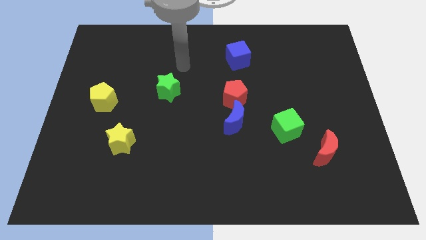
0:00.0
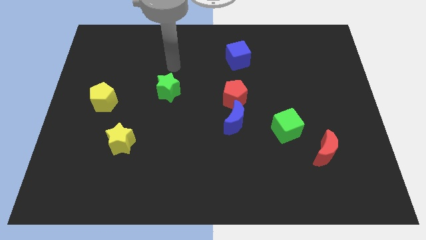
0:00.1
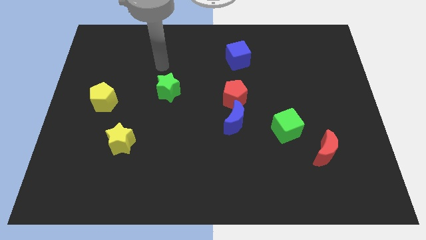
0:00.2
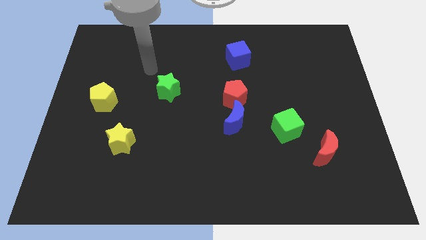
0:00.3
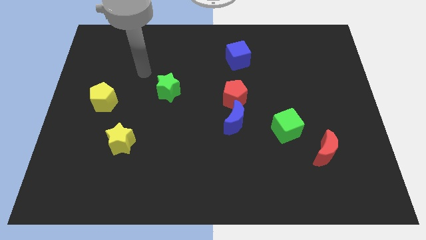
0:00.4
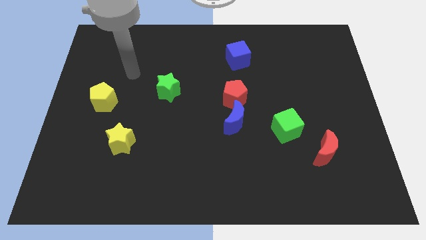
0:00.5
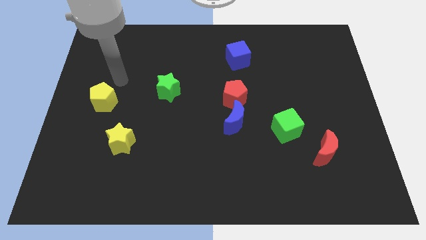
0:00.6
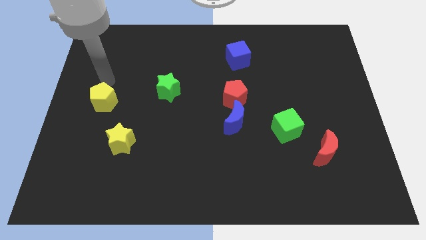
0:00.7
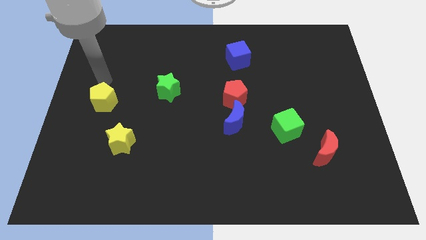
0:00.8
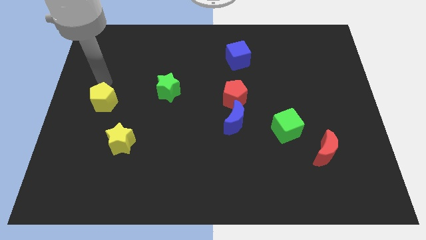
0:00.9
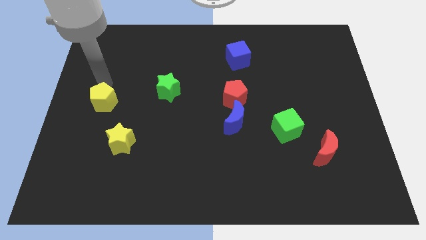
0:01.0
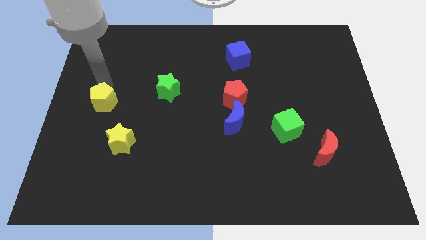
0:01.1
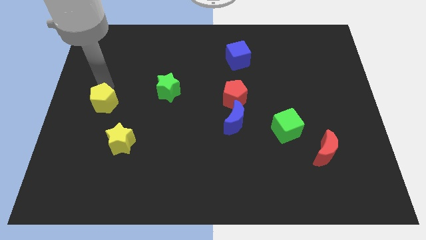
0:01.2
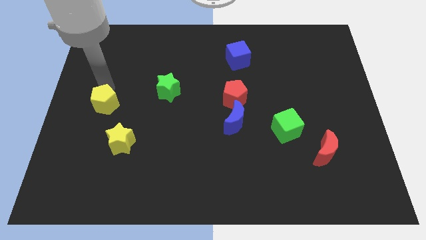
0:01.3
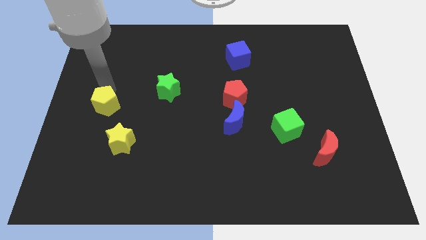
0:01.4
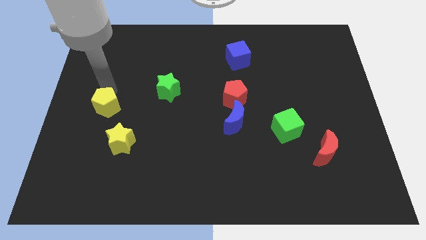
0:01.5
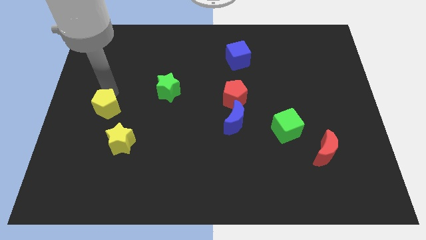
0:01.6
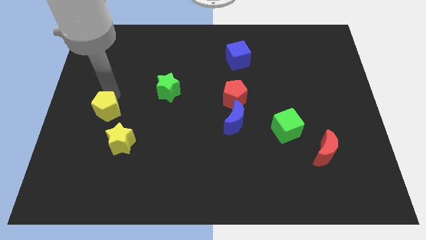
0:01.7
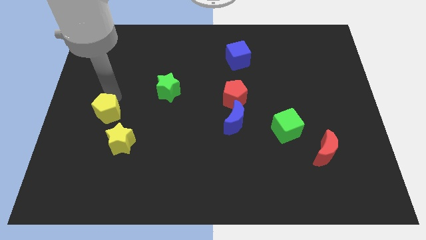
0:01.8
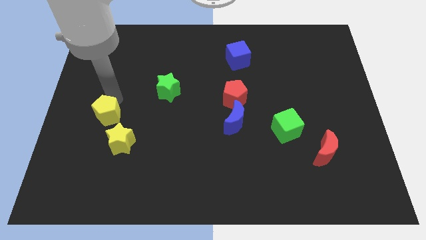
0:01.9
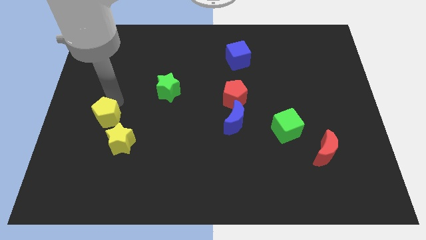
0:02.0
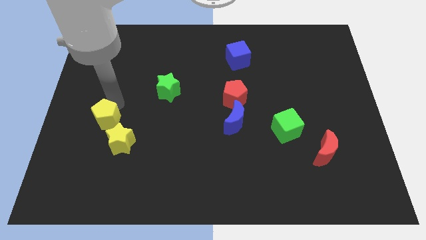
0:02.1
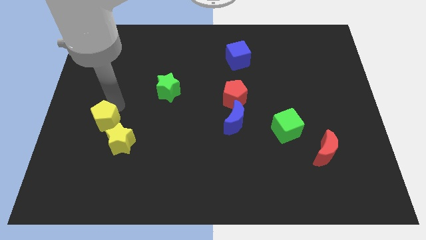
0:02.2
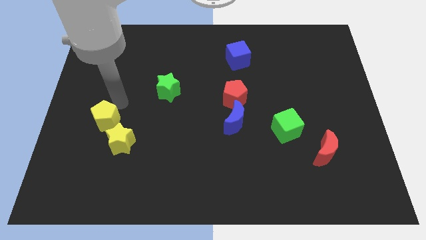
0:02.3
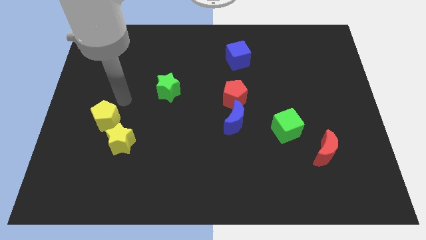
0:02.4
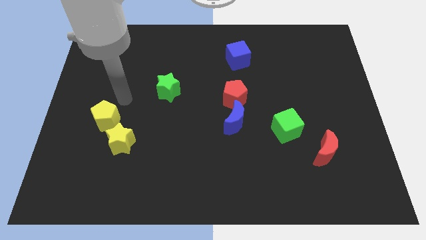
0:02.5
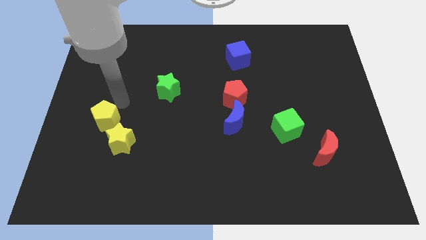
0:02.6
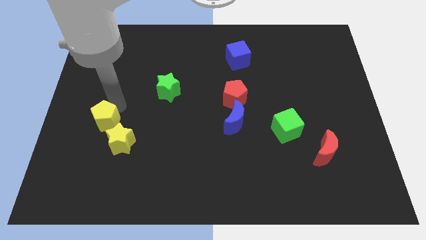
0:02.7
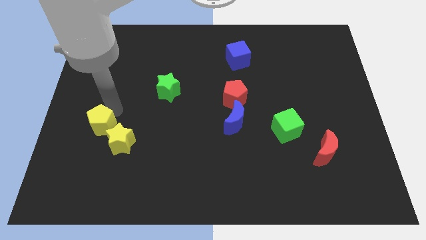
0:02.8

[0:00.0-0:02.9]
move the yellow pentagon downwards somewhat

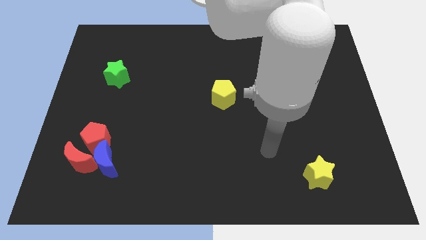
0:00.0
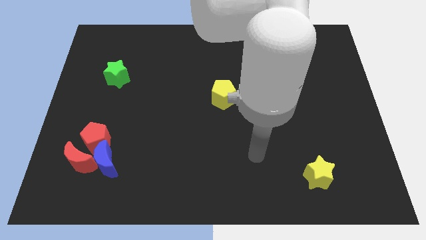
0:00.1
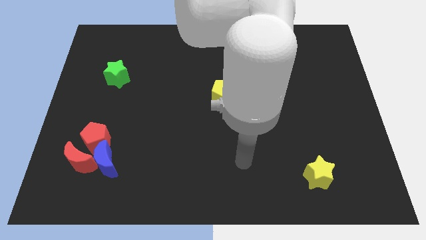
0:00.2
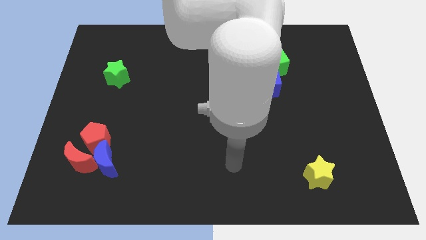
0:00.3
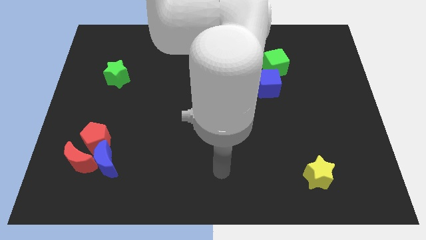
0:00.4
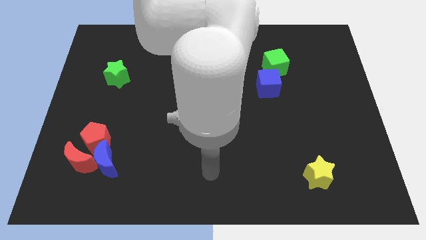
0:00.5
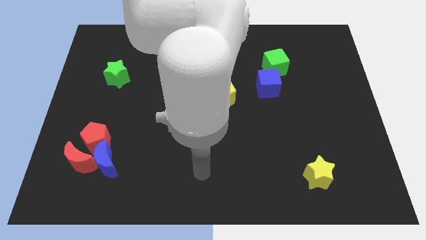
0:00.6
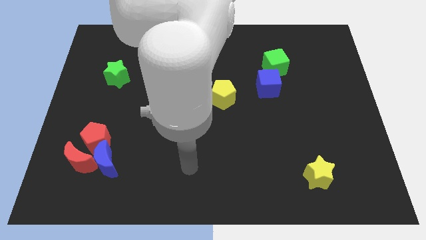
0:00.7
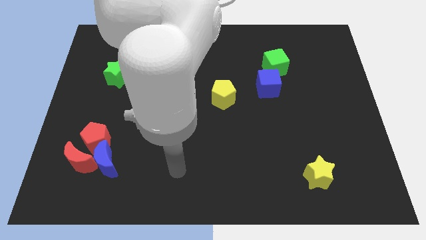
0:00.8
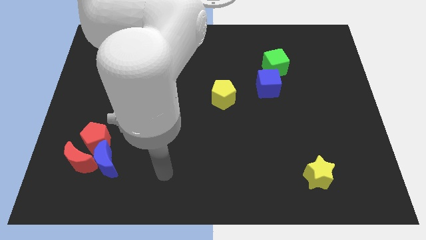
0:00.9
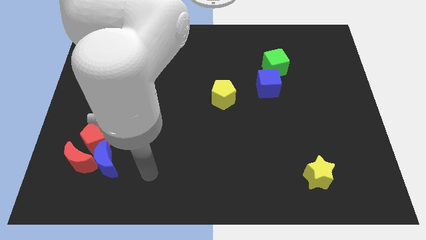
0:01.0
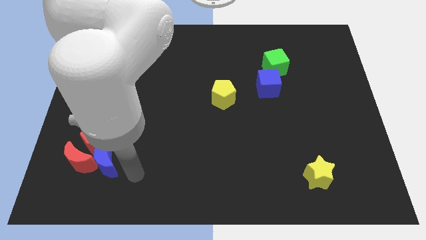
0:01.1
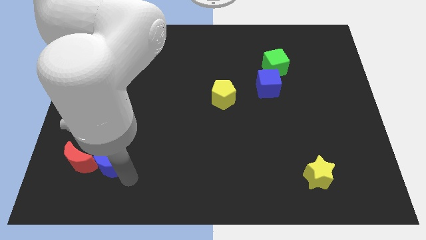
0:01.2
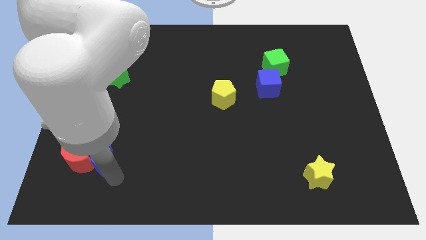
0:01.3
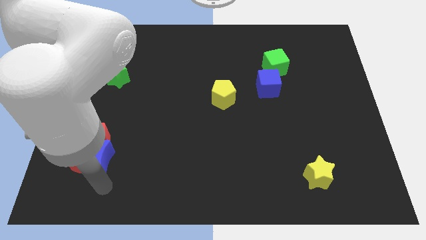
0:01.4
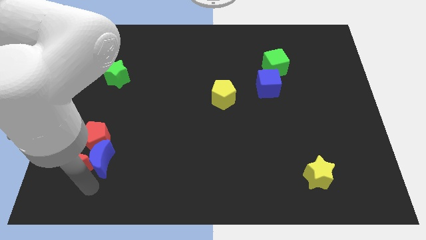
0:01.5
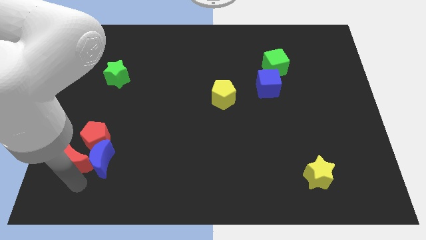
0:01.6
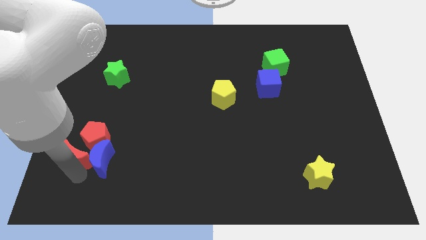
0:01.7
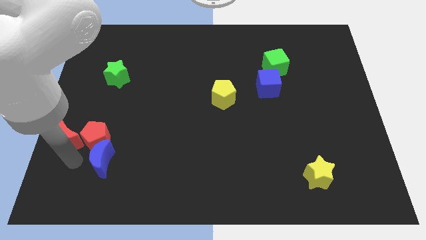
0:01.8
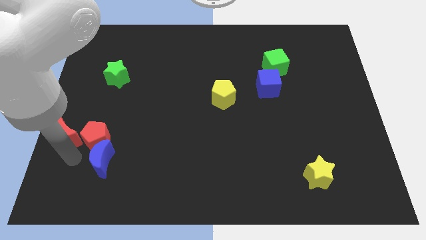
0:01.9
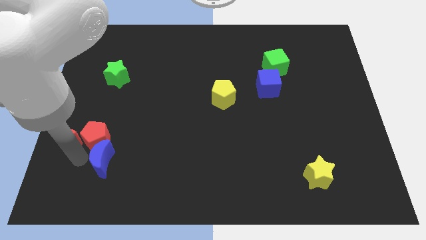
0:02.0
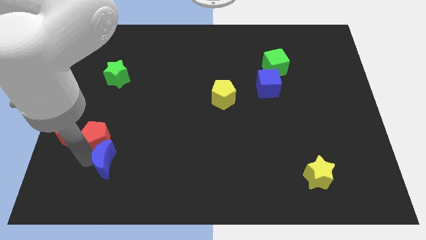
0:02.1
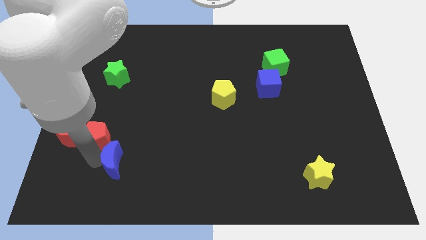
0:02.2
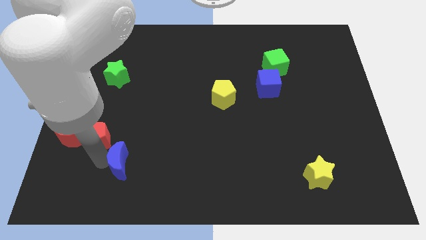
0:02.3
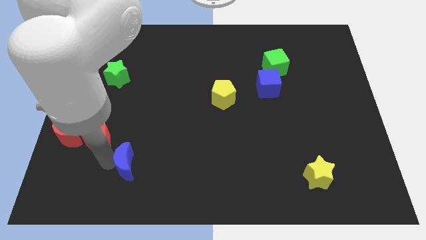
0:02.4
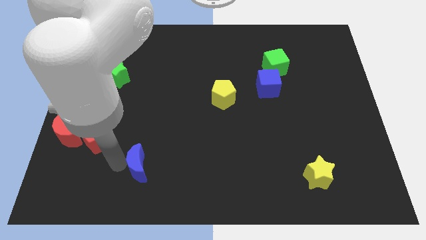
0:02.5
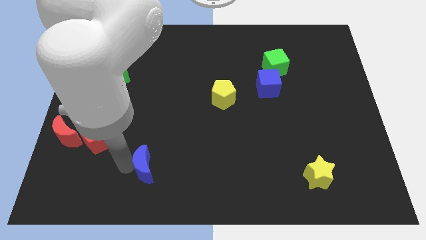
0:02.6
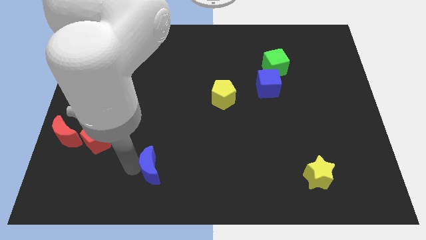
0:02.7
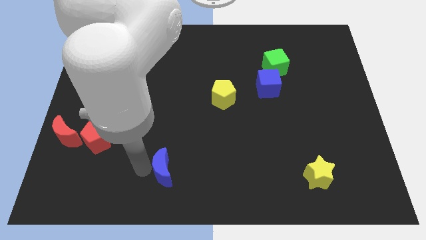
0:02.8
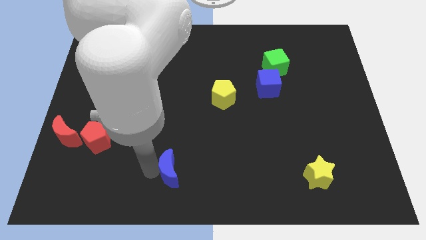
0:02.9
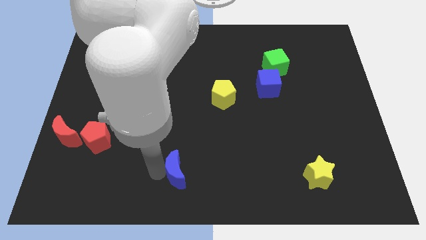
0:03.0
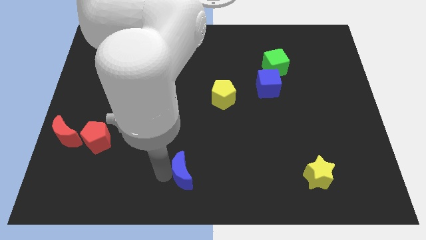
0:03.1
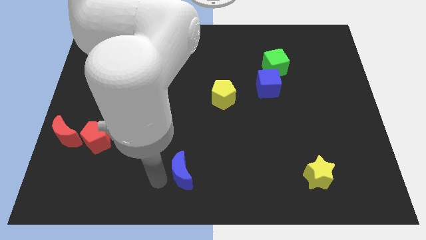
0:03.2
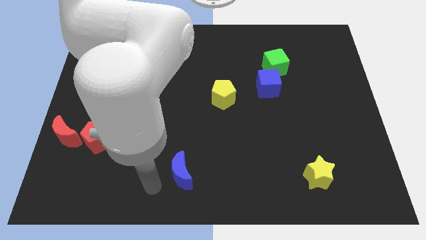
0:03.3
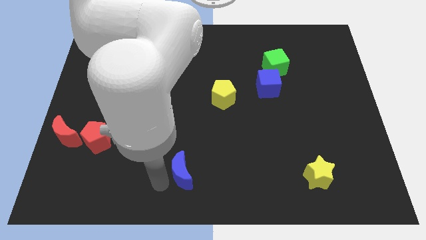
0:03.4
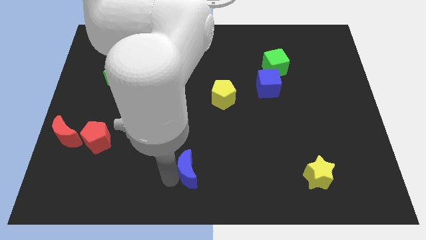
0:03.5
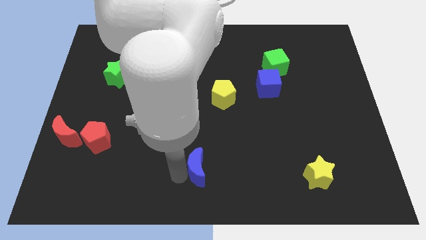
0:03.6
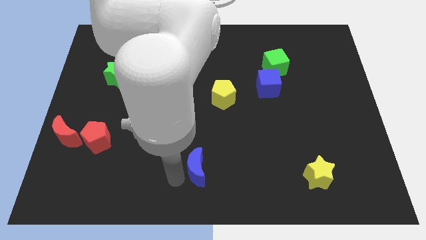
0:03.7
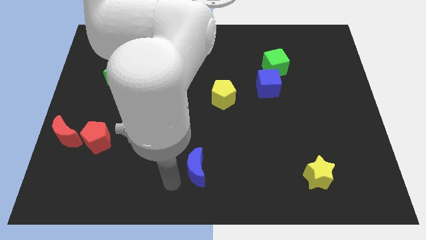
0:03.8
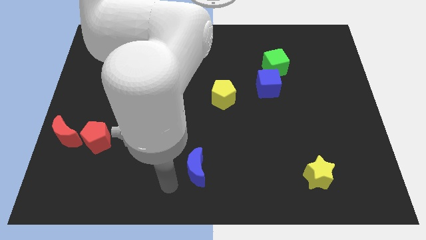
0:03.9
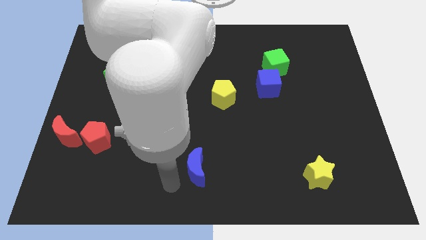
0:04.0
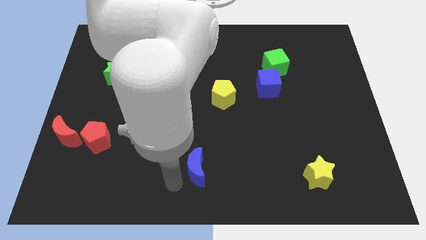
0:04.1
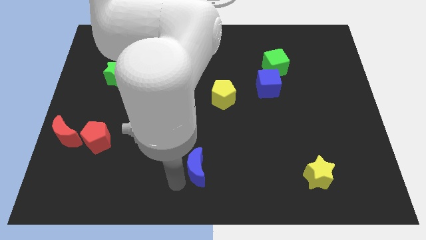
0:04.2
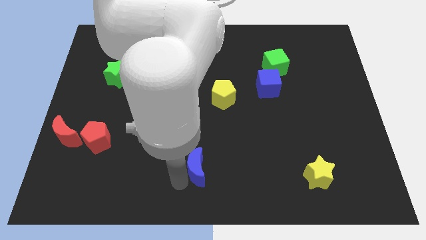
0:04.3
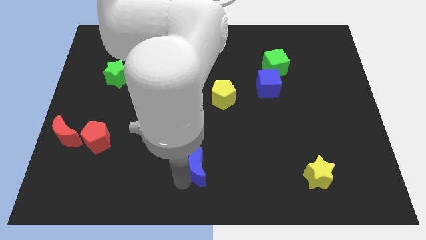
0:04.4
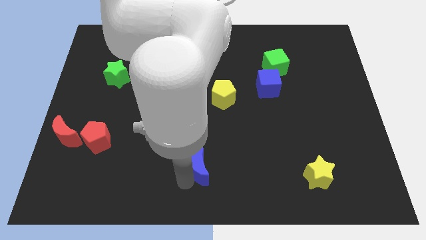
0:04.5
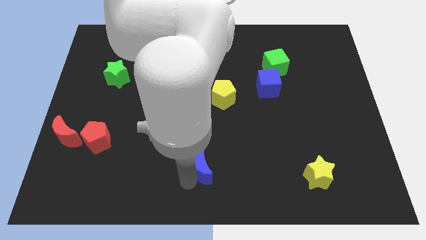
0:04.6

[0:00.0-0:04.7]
slide the blue moon to the right
